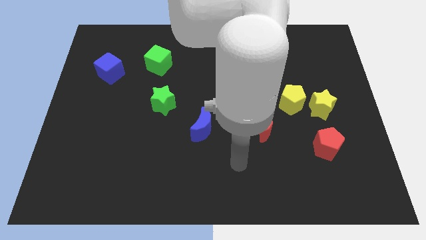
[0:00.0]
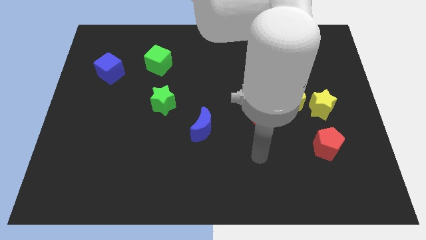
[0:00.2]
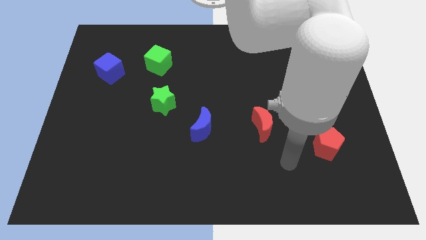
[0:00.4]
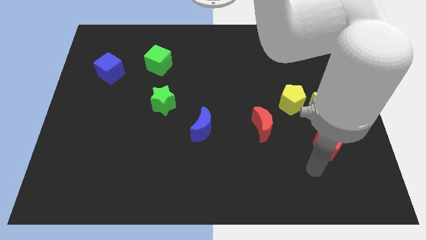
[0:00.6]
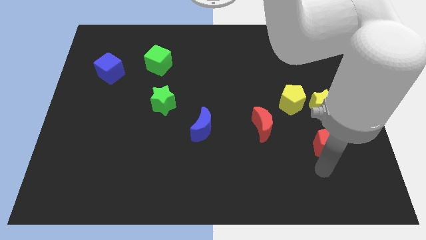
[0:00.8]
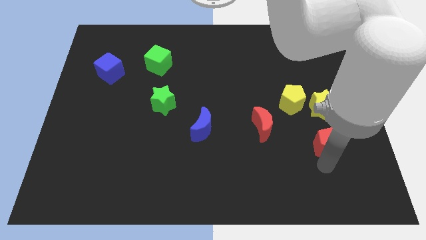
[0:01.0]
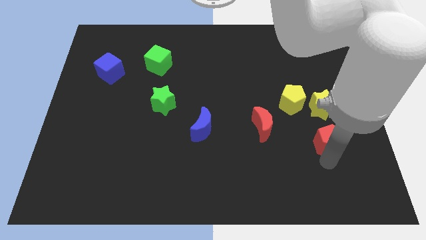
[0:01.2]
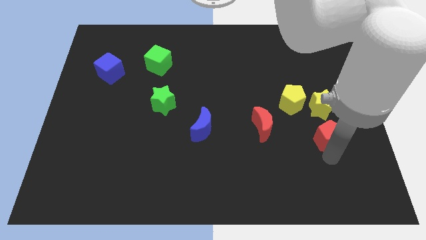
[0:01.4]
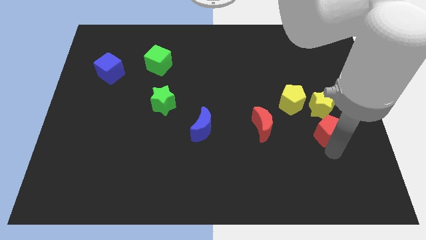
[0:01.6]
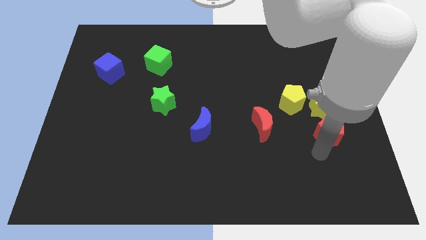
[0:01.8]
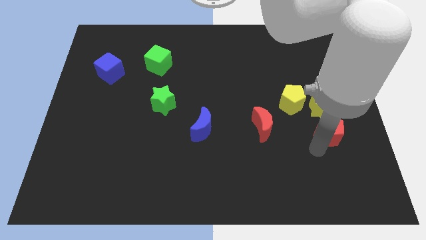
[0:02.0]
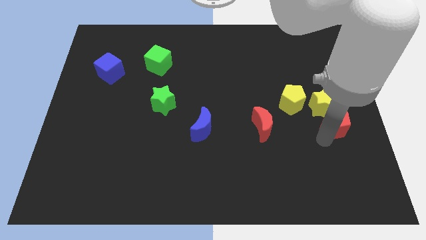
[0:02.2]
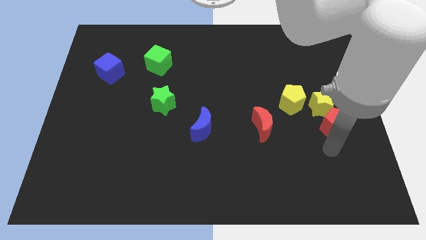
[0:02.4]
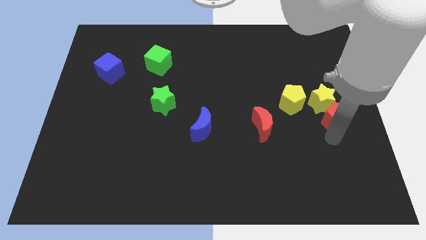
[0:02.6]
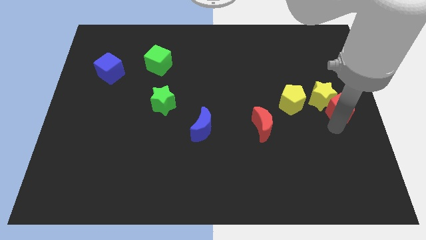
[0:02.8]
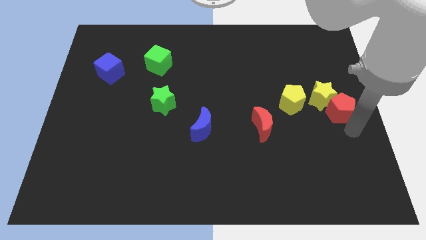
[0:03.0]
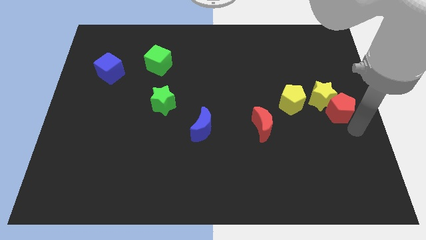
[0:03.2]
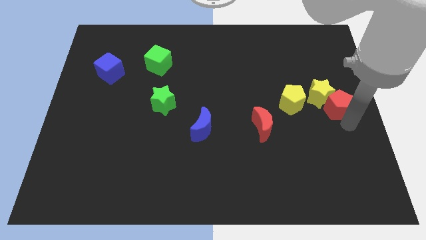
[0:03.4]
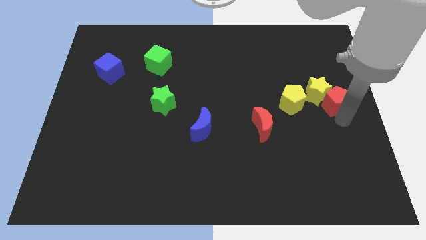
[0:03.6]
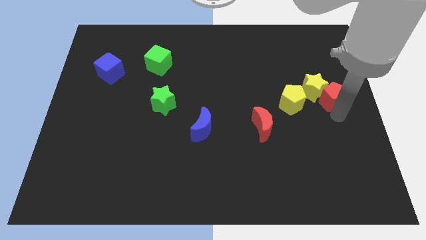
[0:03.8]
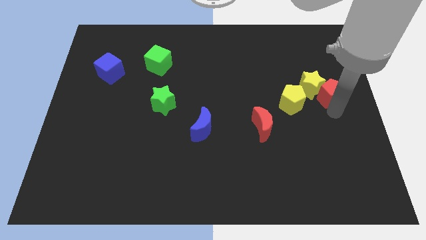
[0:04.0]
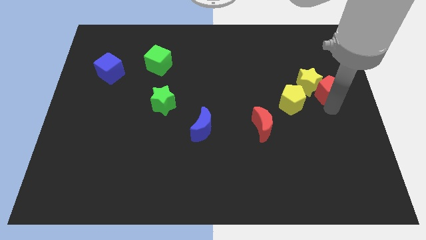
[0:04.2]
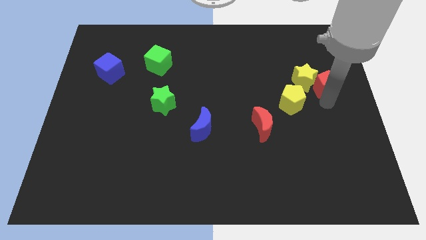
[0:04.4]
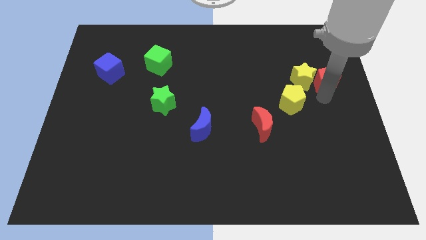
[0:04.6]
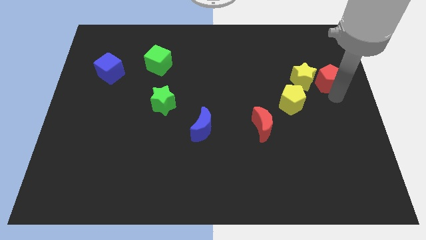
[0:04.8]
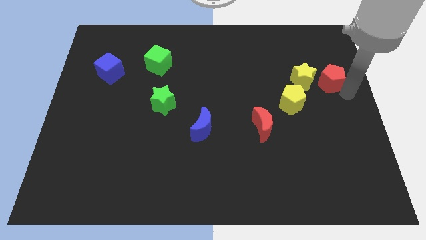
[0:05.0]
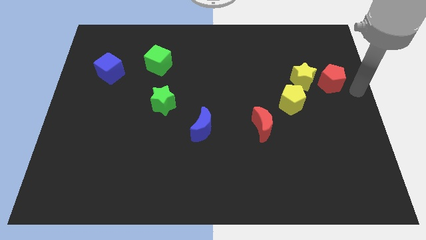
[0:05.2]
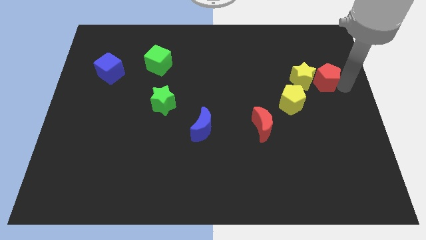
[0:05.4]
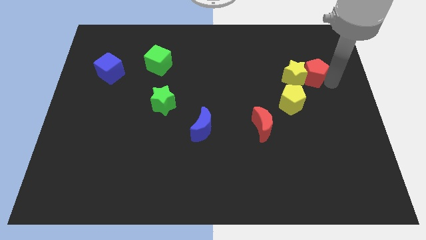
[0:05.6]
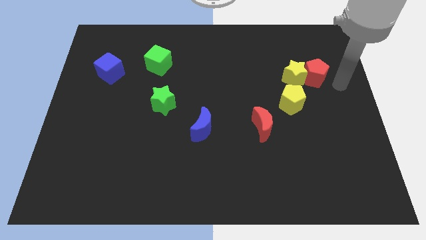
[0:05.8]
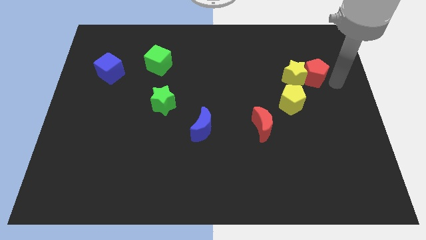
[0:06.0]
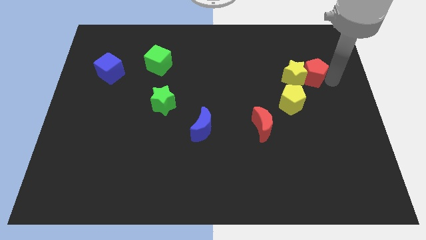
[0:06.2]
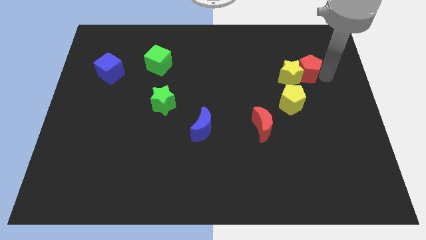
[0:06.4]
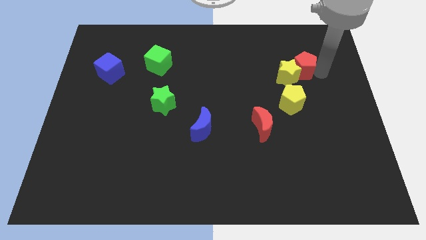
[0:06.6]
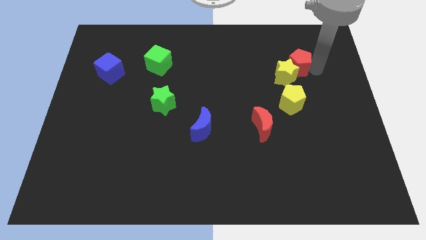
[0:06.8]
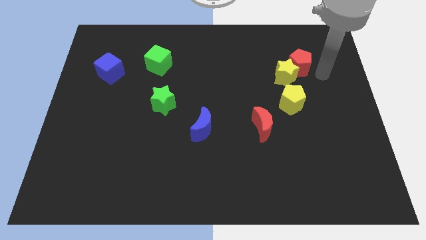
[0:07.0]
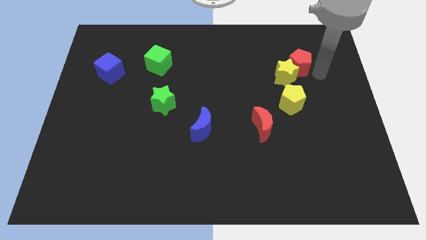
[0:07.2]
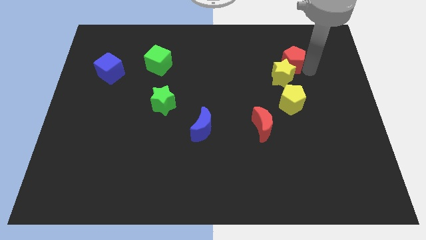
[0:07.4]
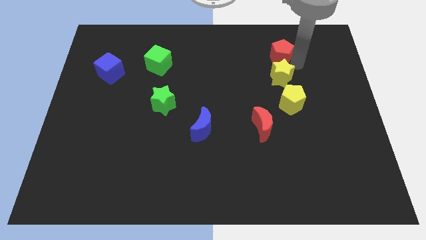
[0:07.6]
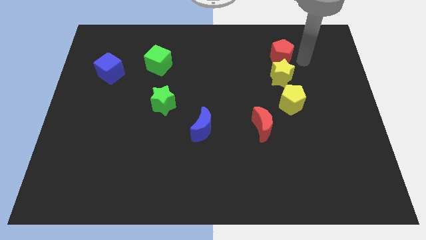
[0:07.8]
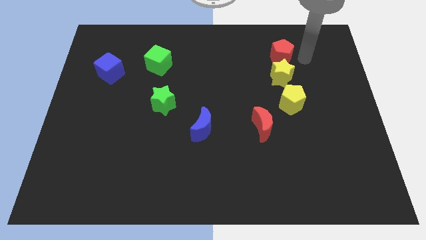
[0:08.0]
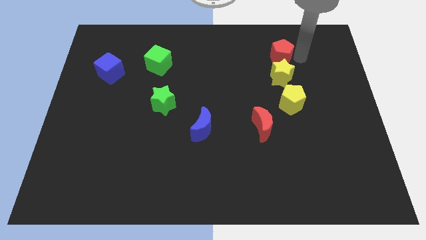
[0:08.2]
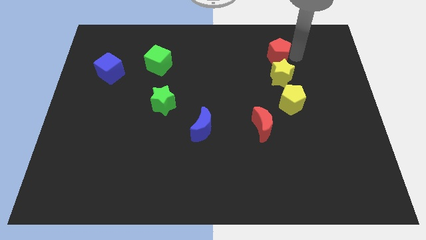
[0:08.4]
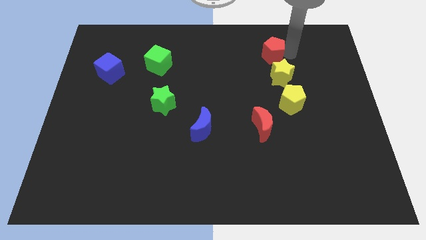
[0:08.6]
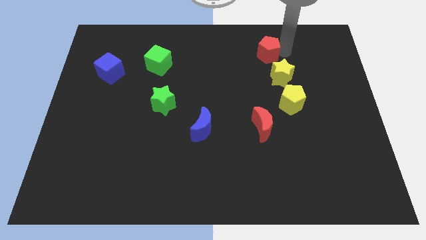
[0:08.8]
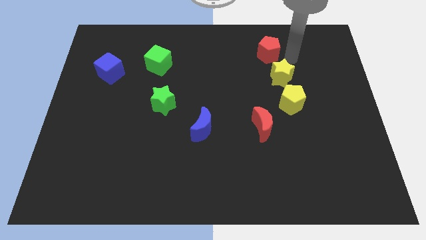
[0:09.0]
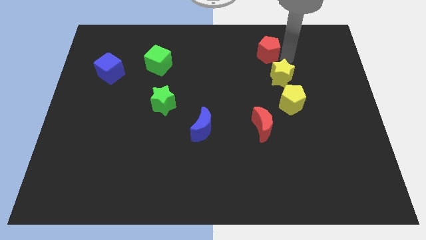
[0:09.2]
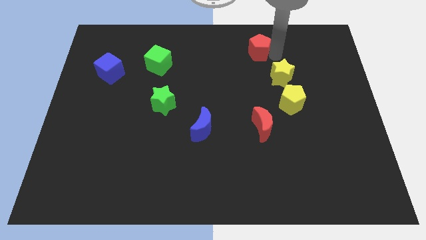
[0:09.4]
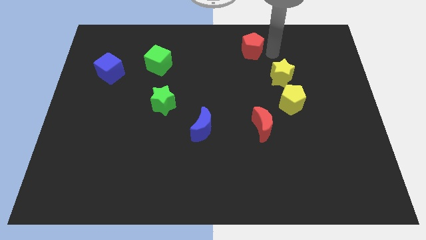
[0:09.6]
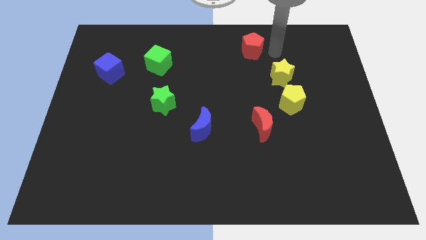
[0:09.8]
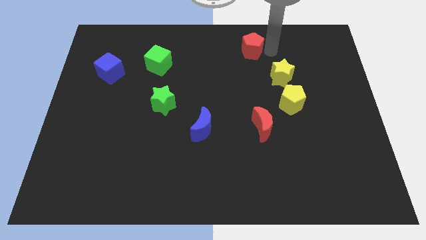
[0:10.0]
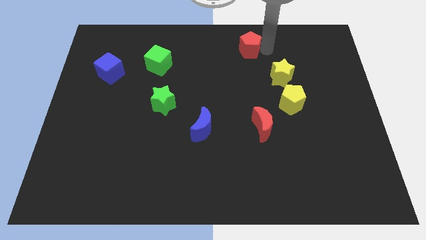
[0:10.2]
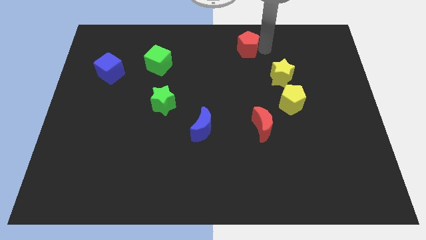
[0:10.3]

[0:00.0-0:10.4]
slide the red pentagon to the towards your base

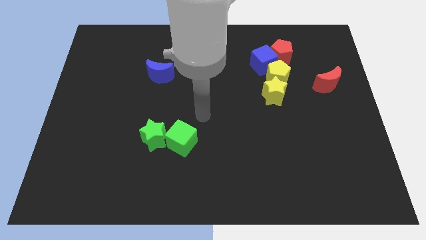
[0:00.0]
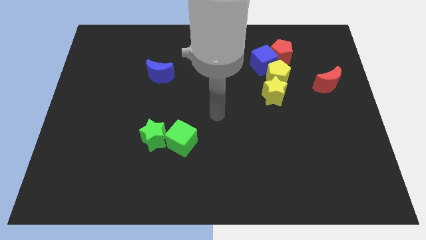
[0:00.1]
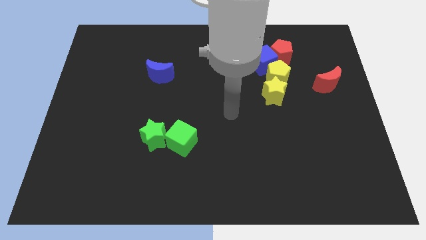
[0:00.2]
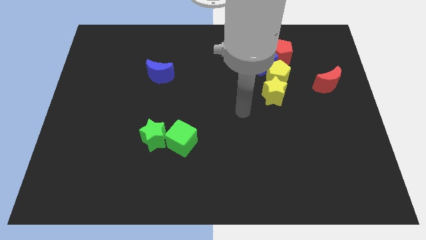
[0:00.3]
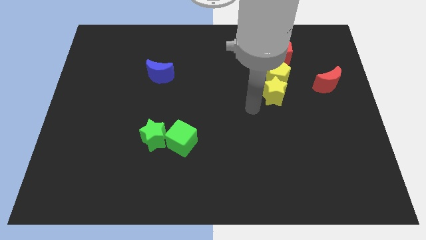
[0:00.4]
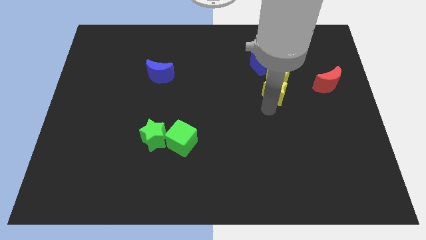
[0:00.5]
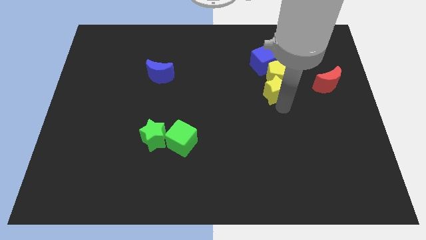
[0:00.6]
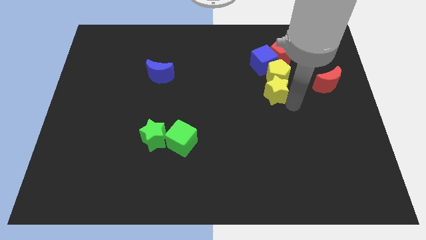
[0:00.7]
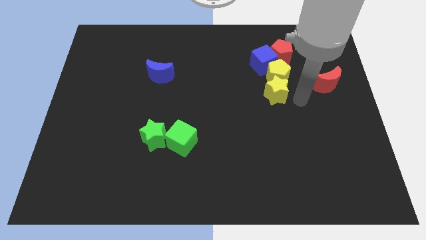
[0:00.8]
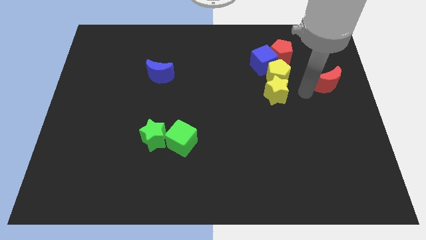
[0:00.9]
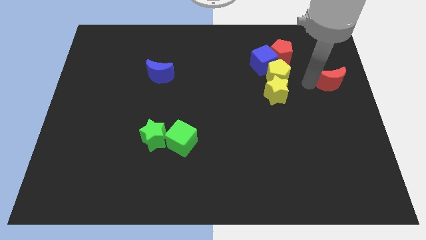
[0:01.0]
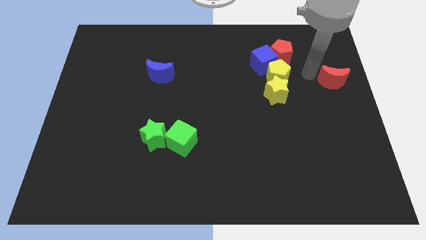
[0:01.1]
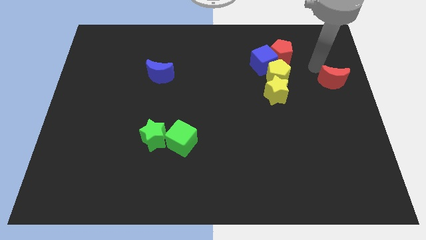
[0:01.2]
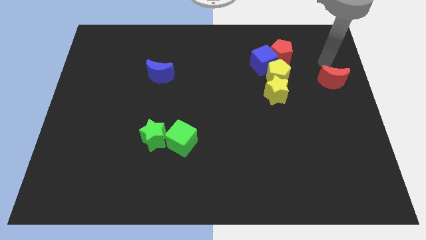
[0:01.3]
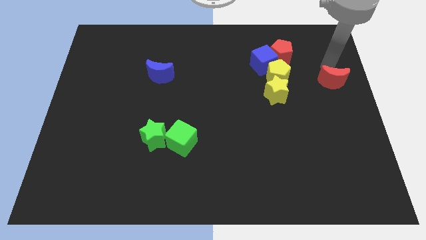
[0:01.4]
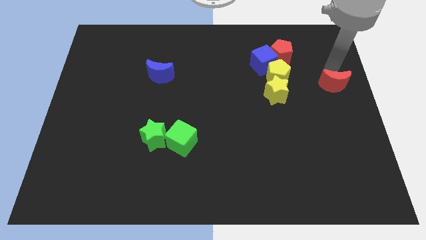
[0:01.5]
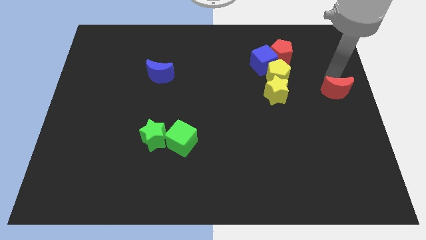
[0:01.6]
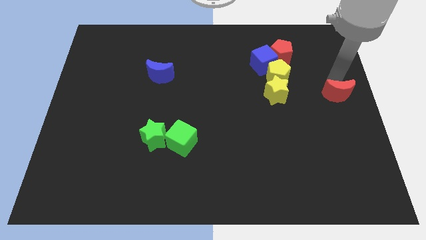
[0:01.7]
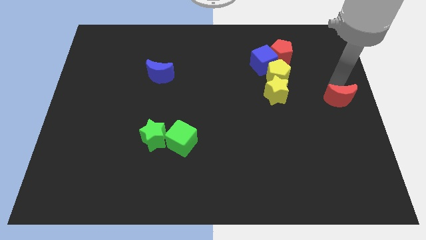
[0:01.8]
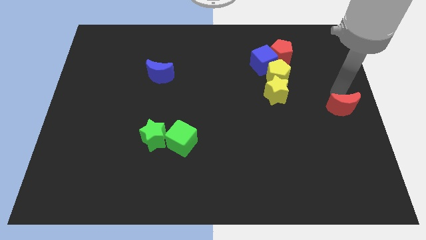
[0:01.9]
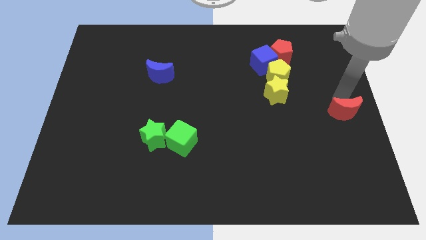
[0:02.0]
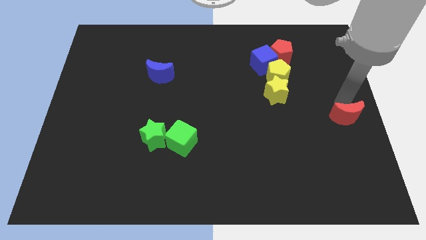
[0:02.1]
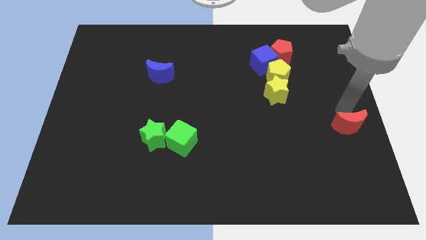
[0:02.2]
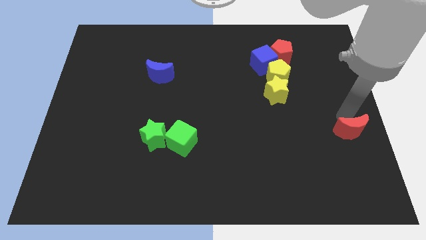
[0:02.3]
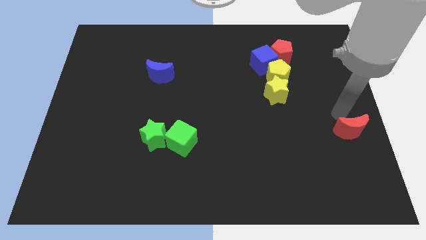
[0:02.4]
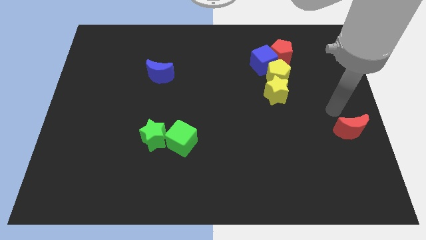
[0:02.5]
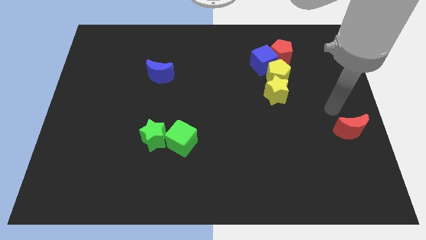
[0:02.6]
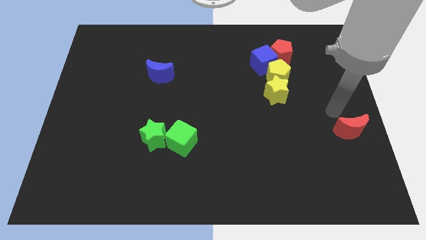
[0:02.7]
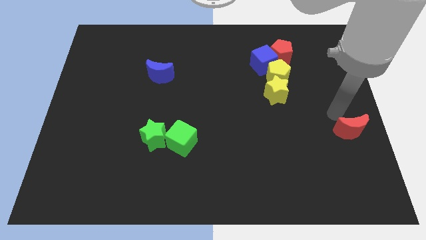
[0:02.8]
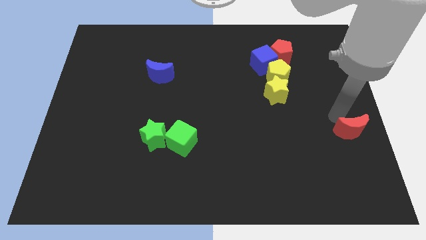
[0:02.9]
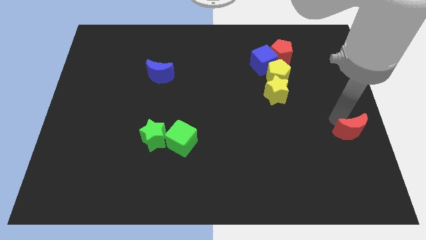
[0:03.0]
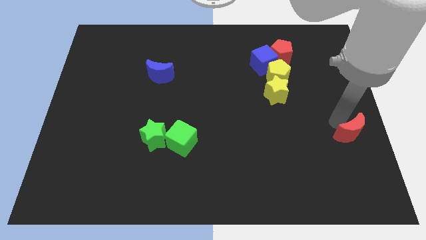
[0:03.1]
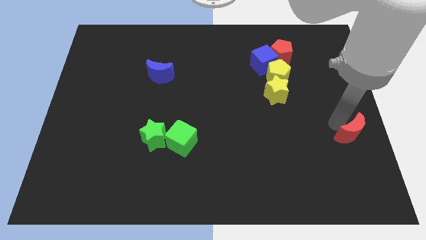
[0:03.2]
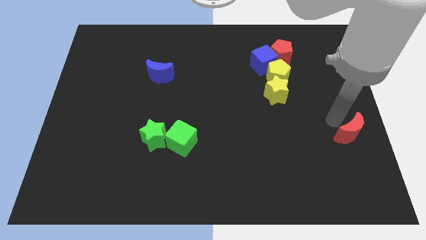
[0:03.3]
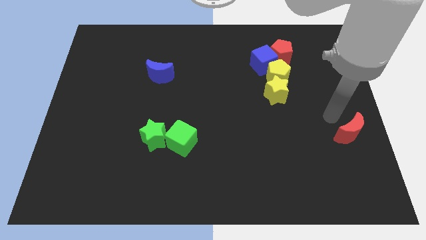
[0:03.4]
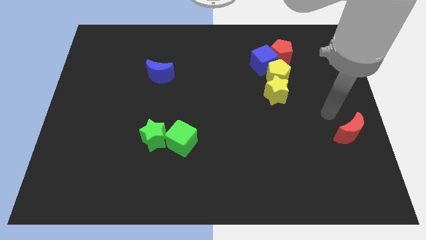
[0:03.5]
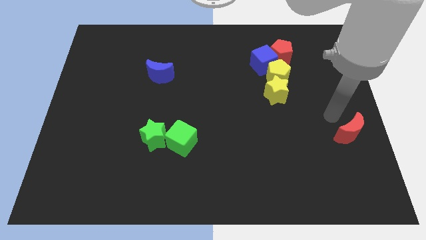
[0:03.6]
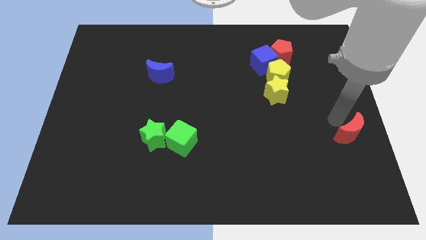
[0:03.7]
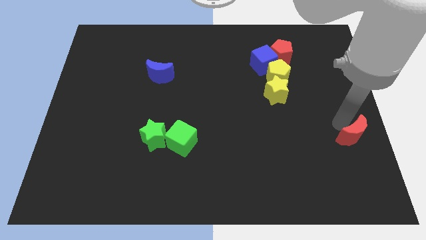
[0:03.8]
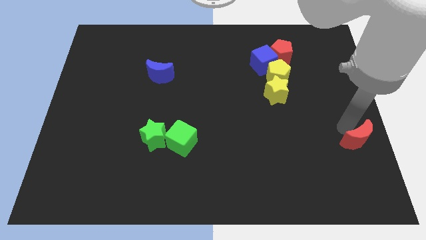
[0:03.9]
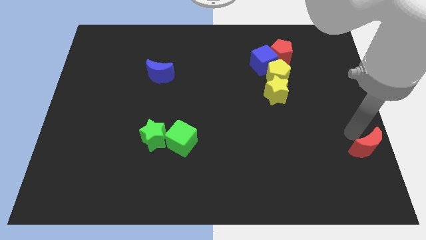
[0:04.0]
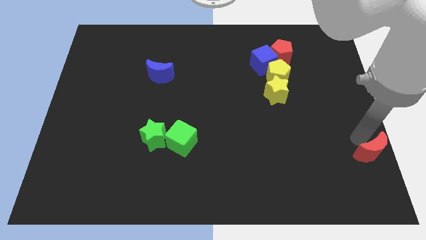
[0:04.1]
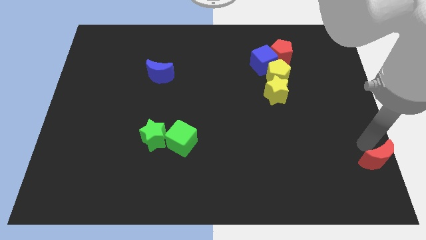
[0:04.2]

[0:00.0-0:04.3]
put the red moon to the bottom right of the board
